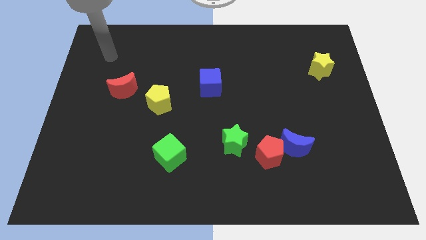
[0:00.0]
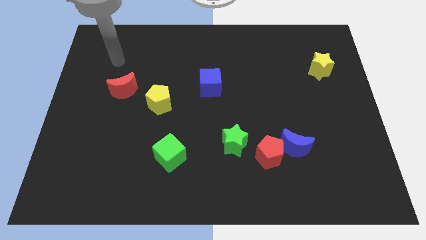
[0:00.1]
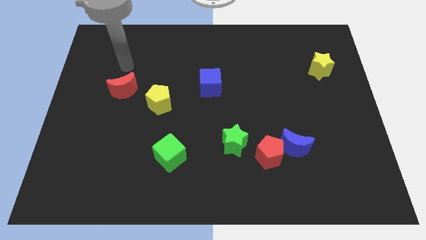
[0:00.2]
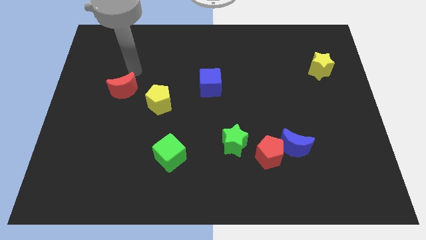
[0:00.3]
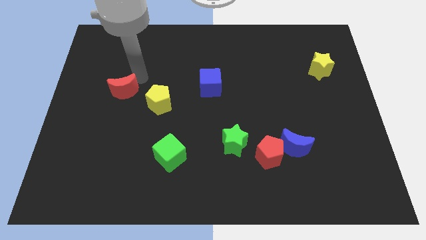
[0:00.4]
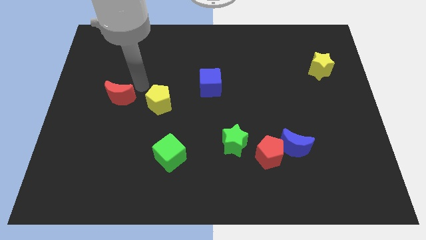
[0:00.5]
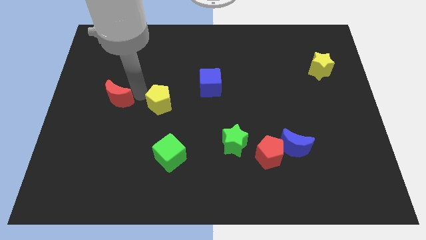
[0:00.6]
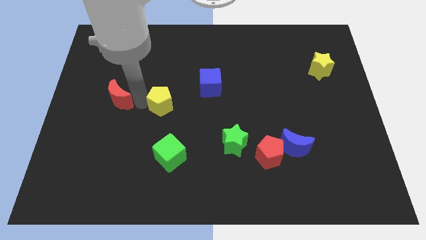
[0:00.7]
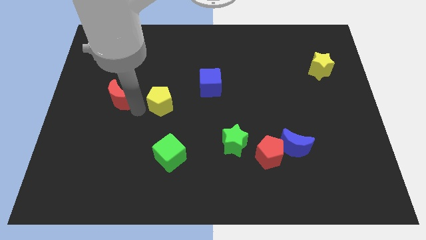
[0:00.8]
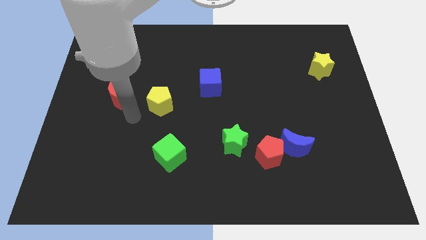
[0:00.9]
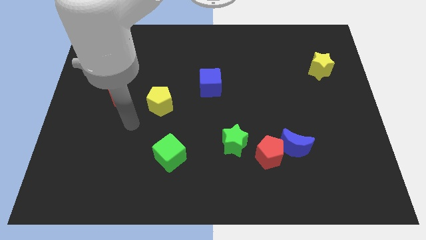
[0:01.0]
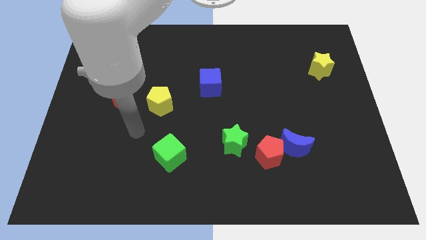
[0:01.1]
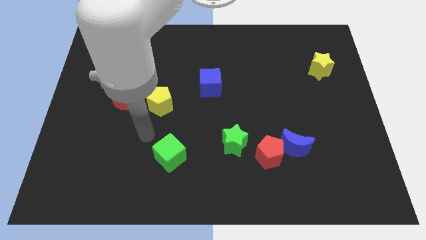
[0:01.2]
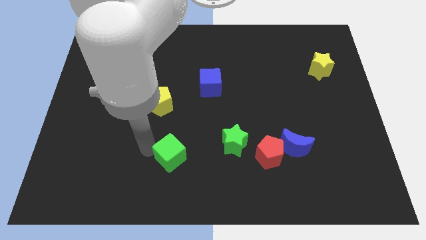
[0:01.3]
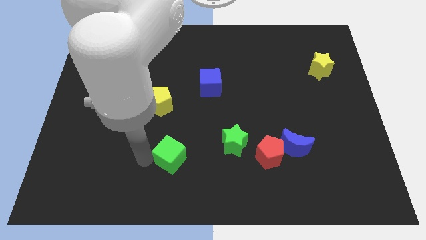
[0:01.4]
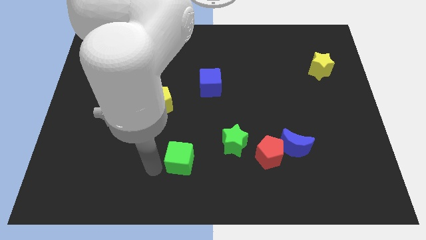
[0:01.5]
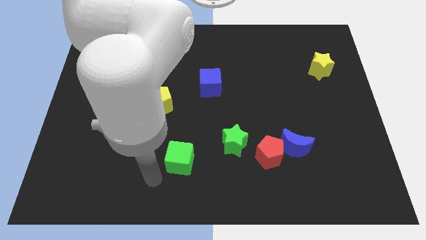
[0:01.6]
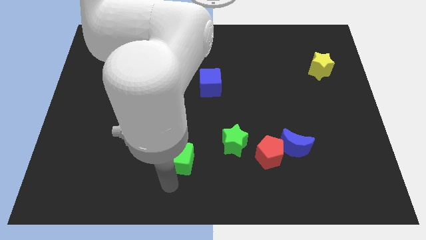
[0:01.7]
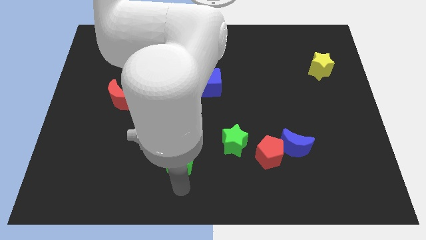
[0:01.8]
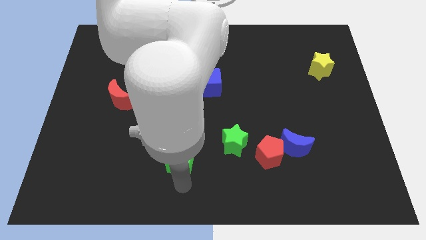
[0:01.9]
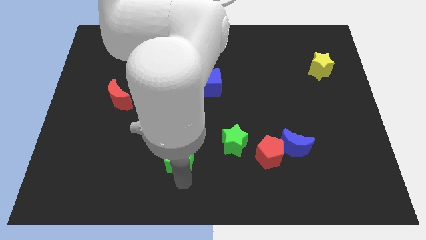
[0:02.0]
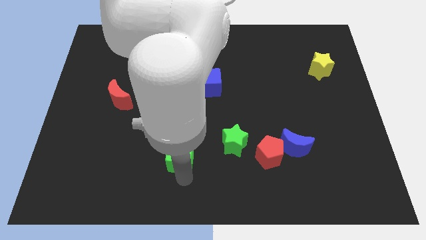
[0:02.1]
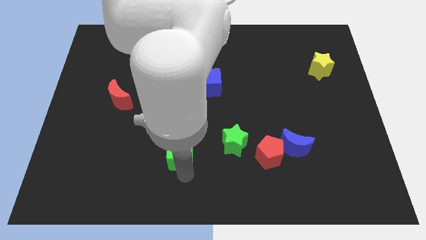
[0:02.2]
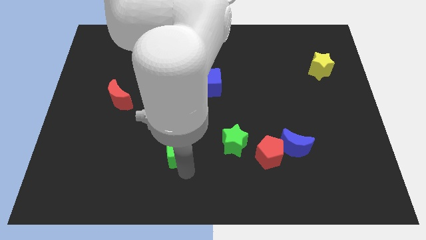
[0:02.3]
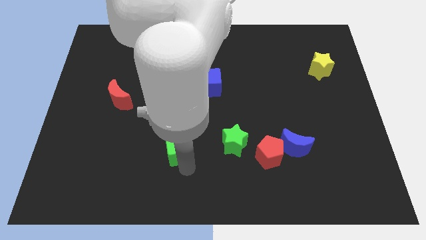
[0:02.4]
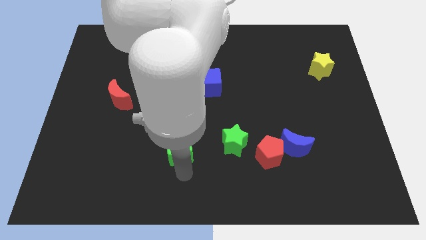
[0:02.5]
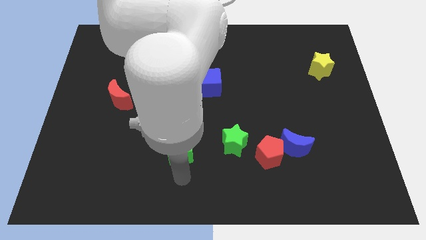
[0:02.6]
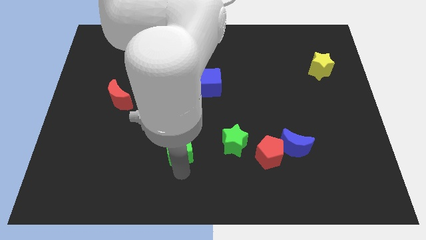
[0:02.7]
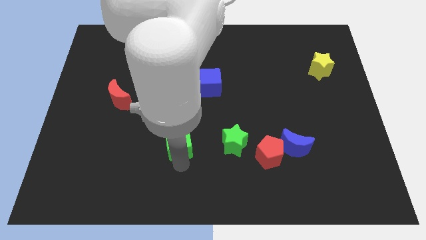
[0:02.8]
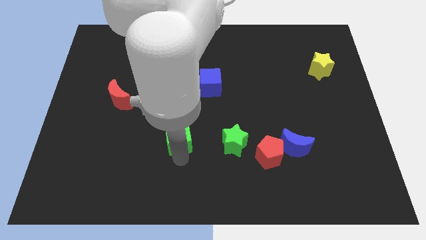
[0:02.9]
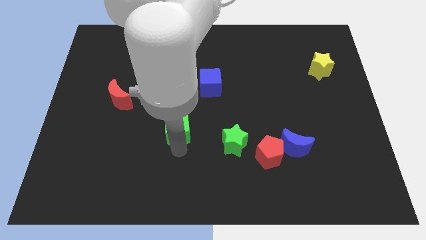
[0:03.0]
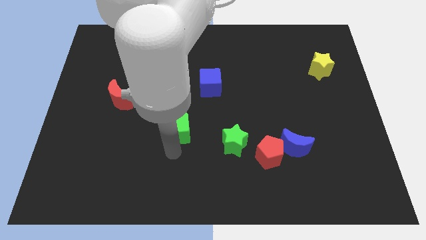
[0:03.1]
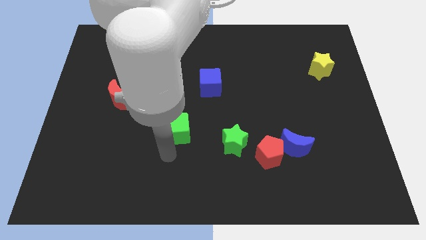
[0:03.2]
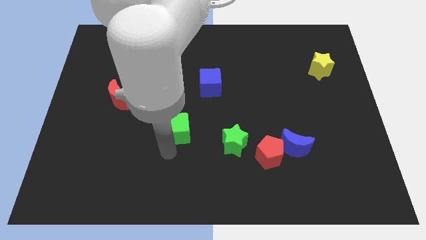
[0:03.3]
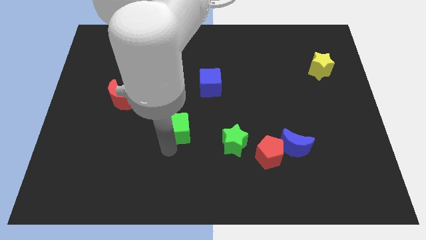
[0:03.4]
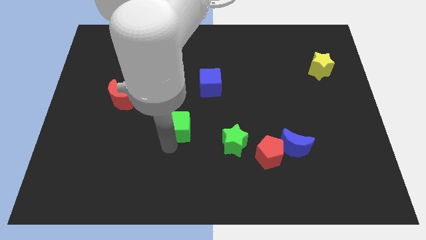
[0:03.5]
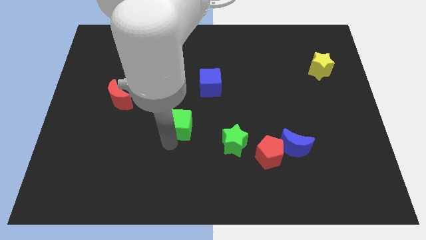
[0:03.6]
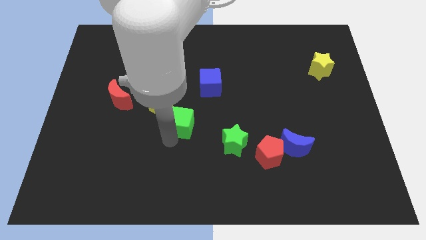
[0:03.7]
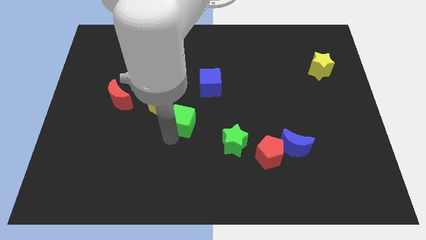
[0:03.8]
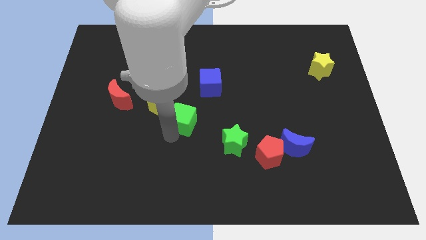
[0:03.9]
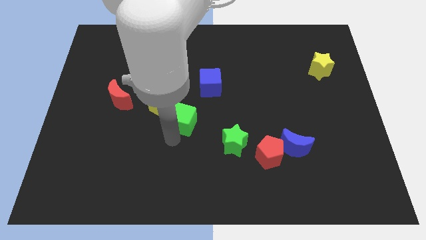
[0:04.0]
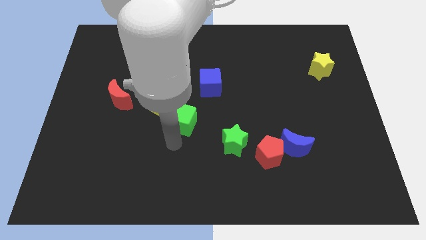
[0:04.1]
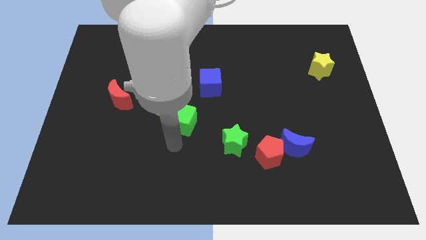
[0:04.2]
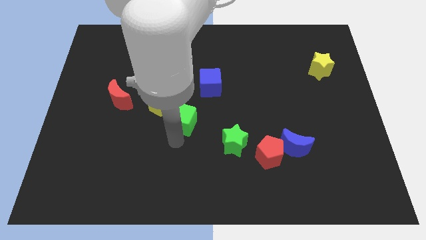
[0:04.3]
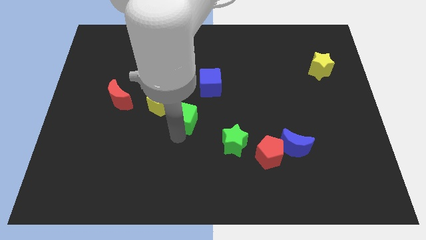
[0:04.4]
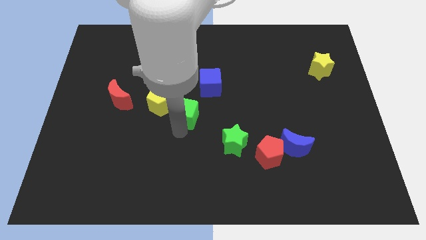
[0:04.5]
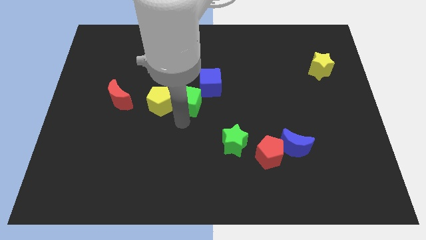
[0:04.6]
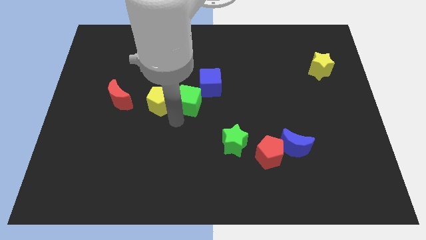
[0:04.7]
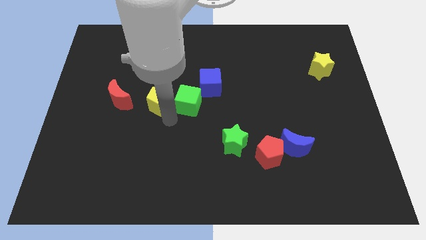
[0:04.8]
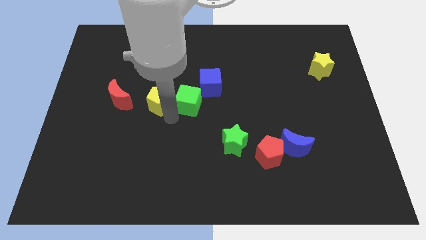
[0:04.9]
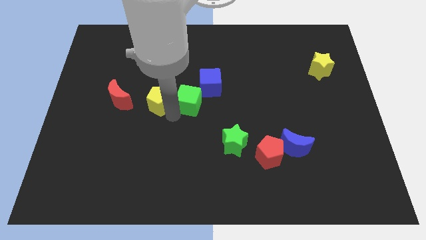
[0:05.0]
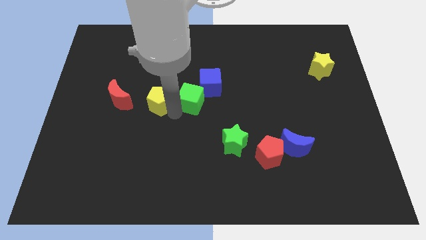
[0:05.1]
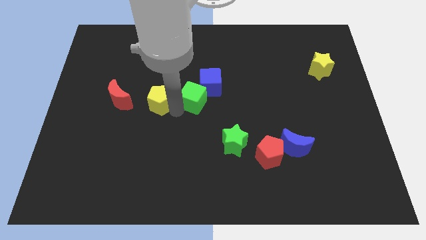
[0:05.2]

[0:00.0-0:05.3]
move the green cube towards the blue cube
